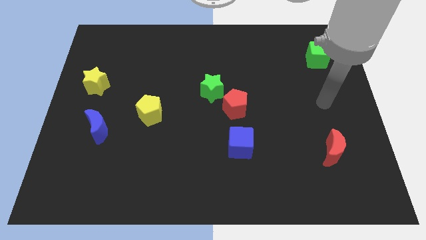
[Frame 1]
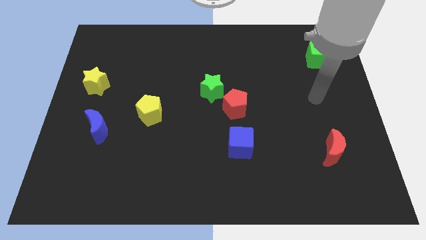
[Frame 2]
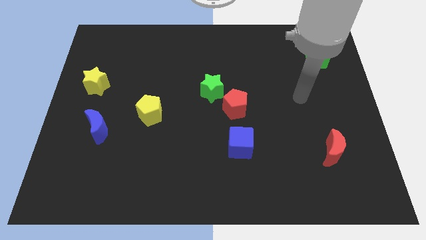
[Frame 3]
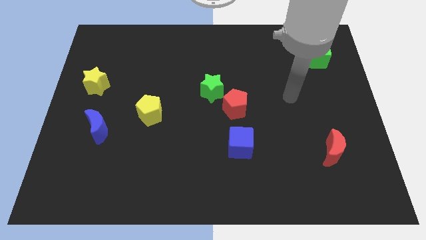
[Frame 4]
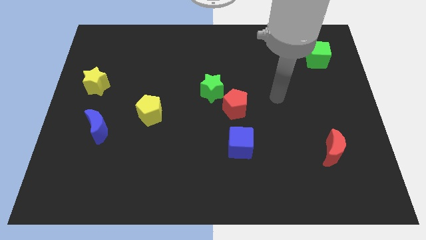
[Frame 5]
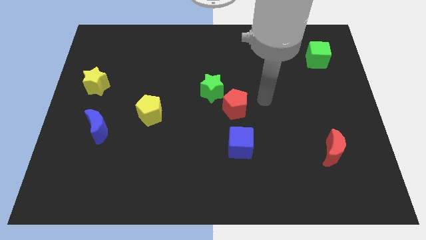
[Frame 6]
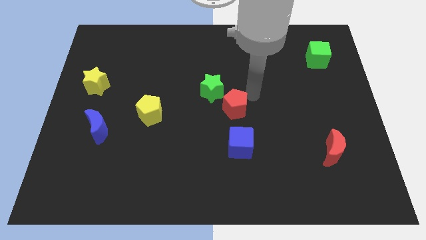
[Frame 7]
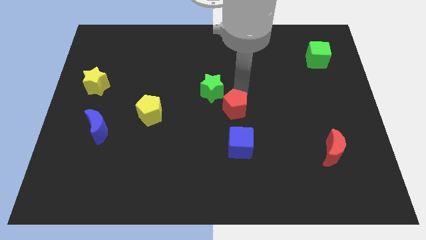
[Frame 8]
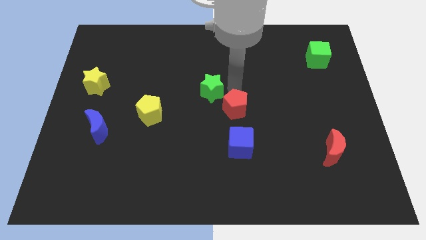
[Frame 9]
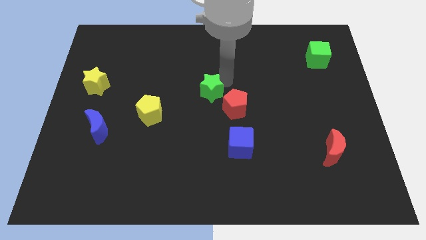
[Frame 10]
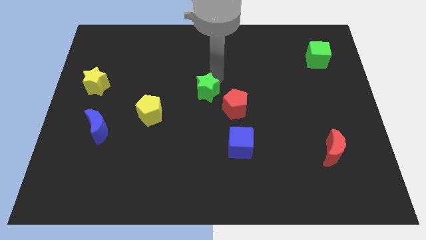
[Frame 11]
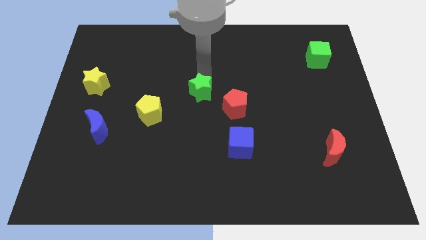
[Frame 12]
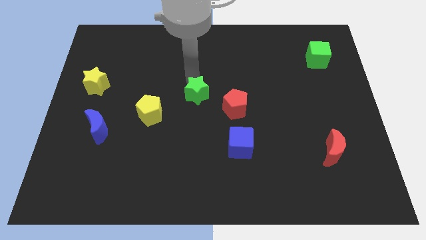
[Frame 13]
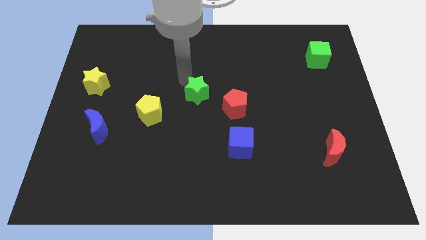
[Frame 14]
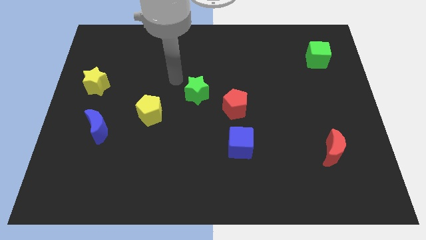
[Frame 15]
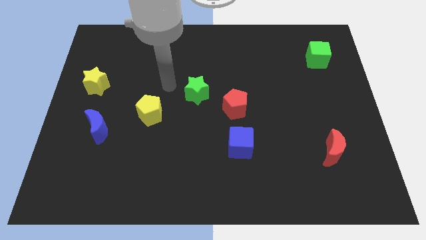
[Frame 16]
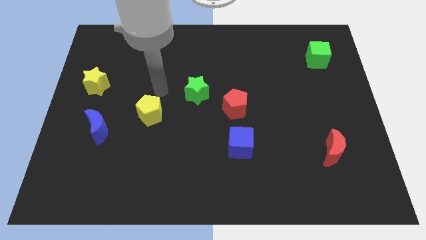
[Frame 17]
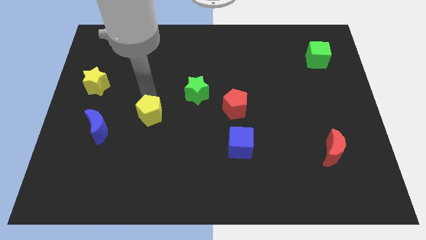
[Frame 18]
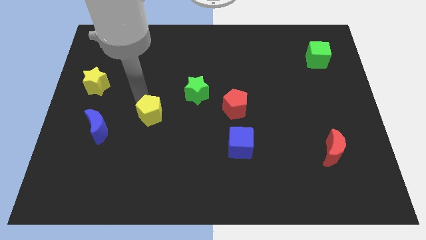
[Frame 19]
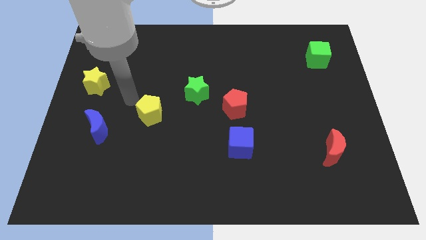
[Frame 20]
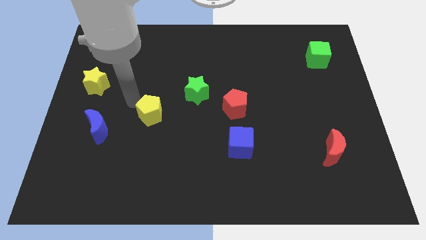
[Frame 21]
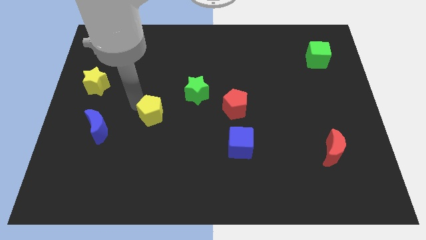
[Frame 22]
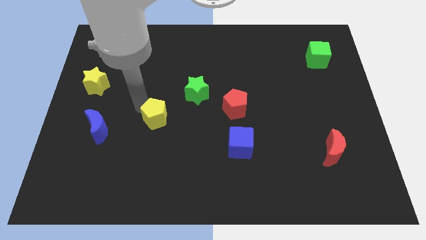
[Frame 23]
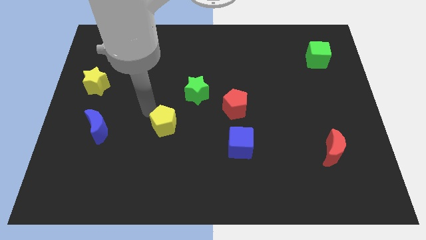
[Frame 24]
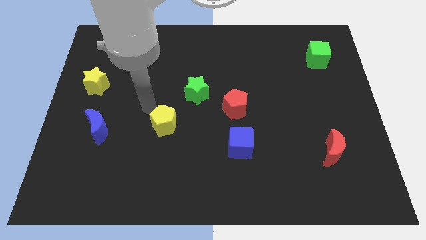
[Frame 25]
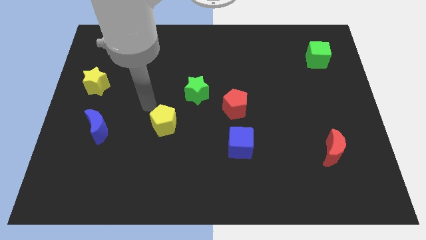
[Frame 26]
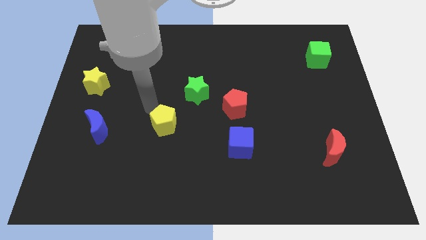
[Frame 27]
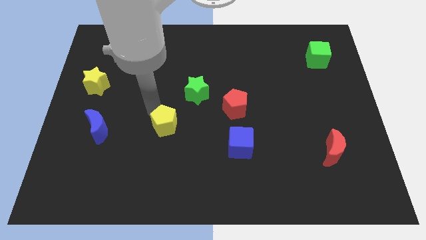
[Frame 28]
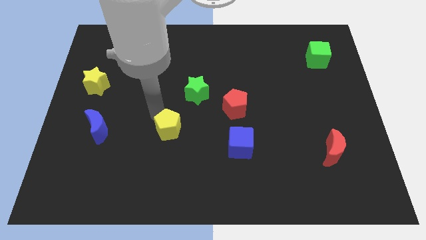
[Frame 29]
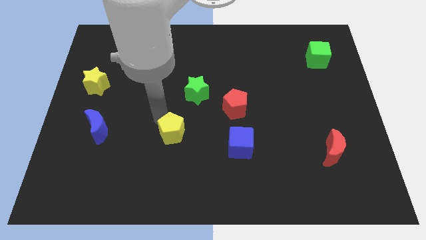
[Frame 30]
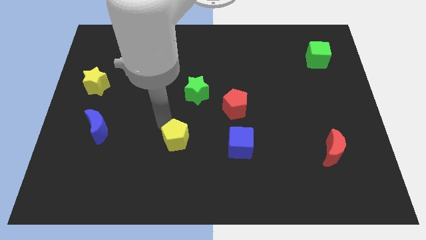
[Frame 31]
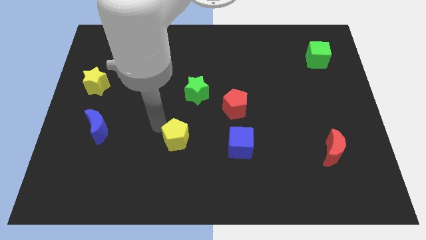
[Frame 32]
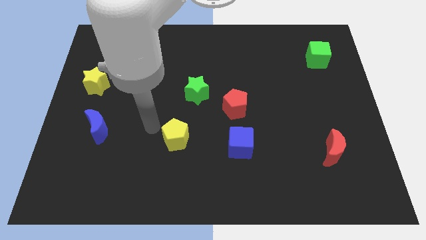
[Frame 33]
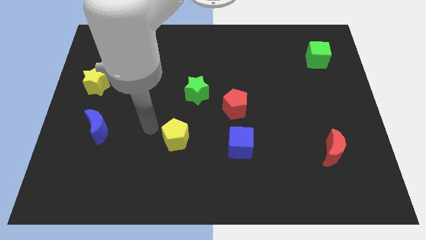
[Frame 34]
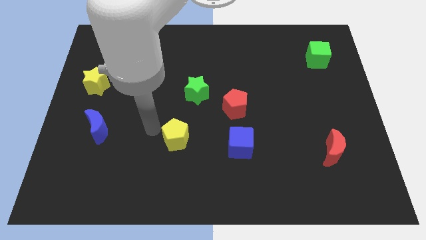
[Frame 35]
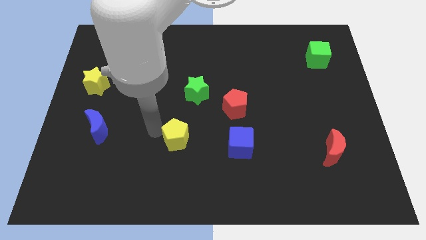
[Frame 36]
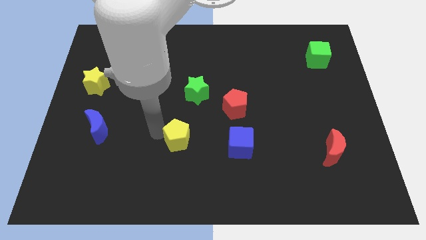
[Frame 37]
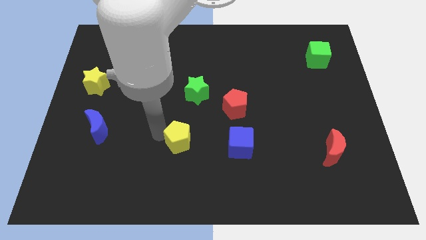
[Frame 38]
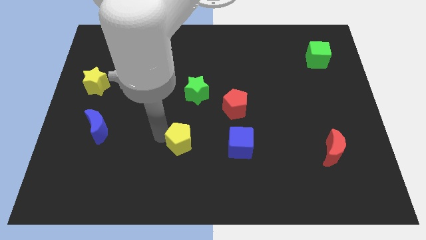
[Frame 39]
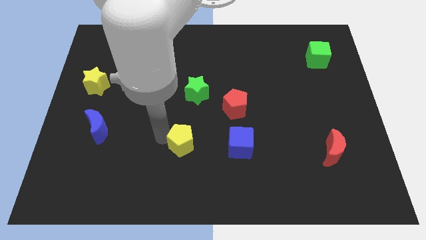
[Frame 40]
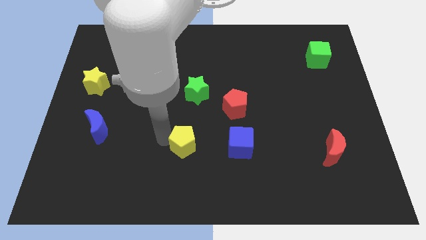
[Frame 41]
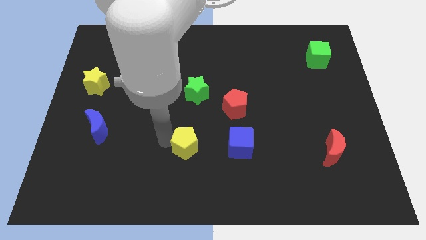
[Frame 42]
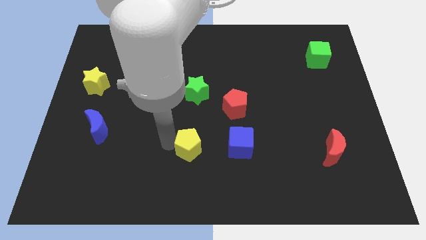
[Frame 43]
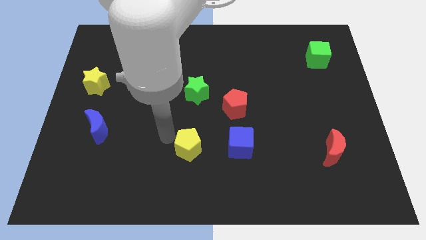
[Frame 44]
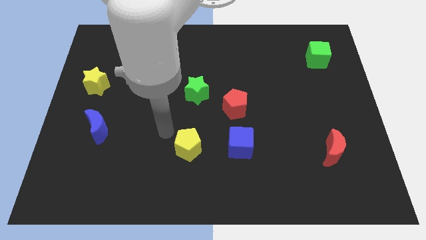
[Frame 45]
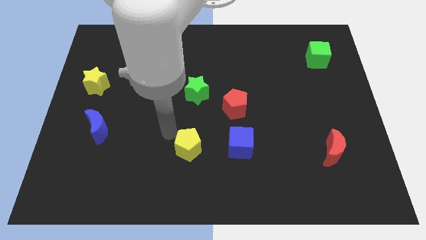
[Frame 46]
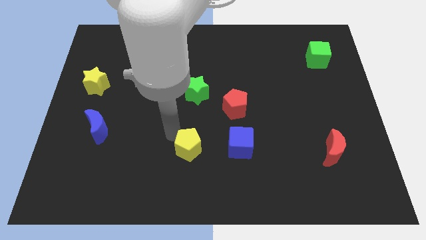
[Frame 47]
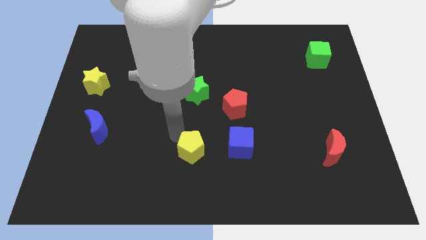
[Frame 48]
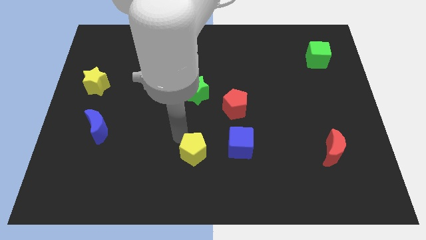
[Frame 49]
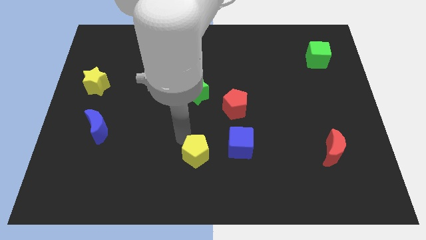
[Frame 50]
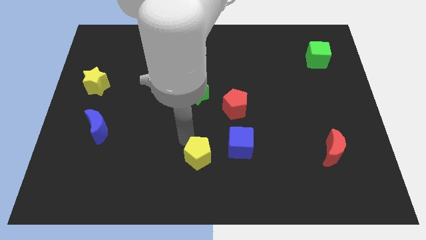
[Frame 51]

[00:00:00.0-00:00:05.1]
put the yellow pentagon to the bottom left of the blue cube

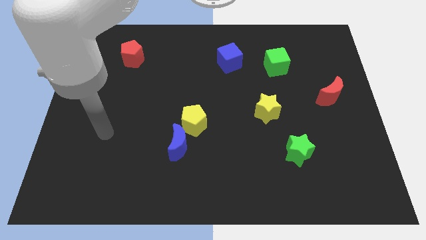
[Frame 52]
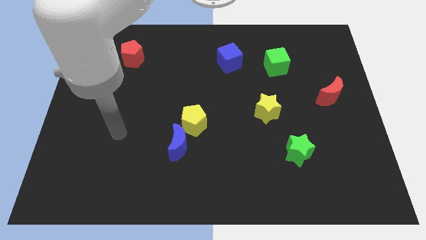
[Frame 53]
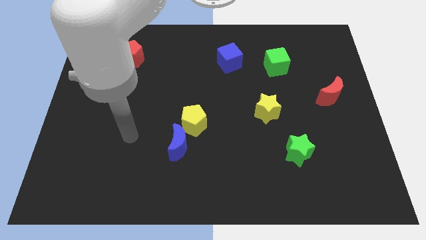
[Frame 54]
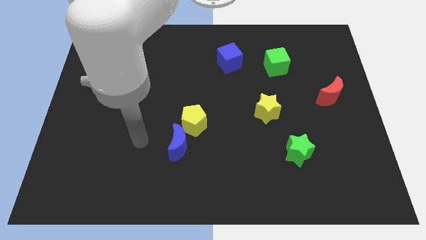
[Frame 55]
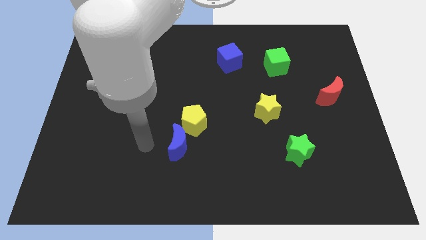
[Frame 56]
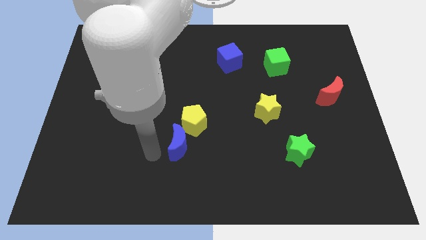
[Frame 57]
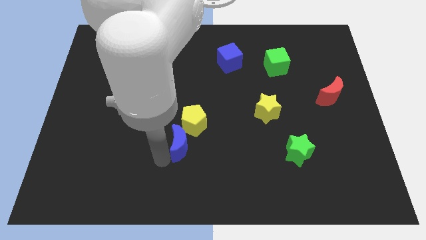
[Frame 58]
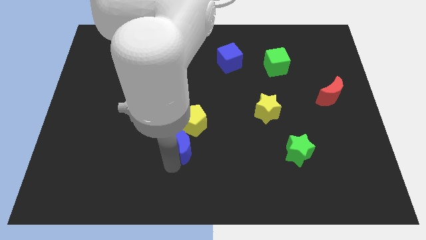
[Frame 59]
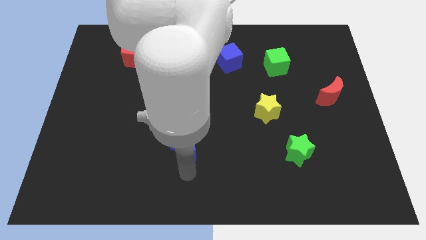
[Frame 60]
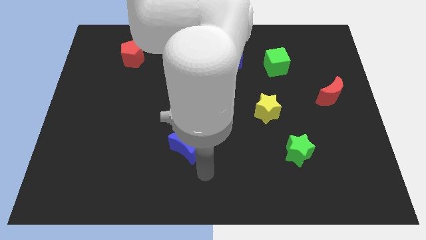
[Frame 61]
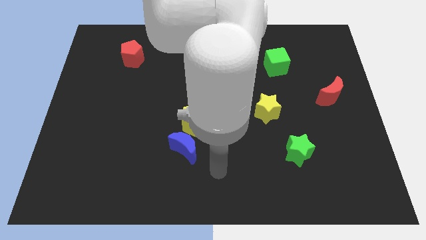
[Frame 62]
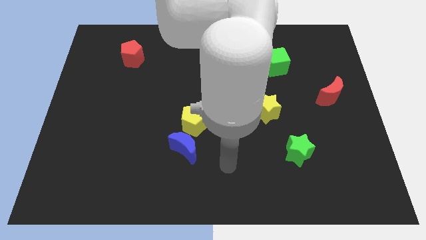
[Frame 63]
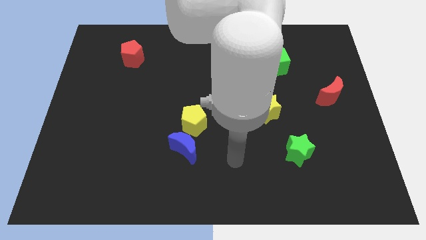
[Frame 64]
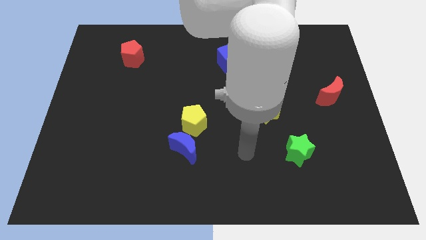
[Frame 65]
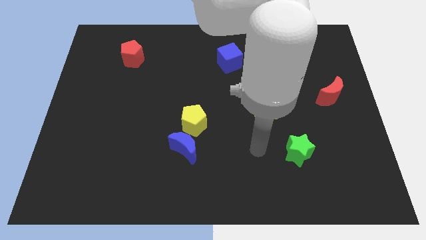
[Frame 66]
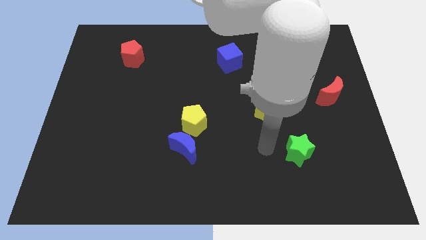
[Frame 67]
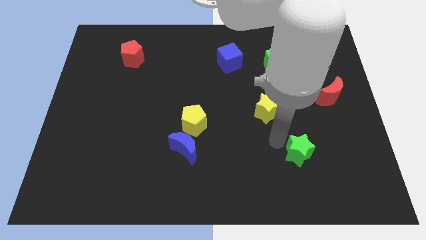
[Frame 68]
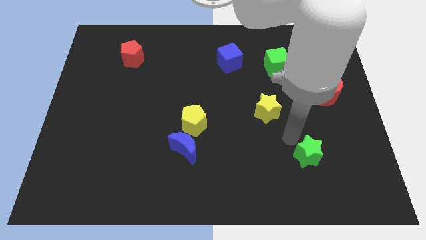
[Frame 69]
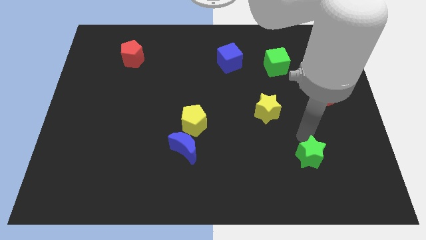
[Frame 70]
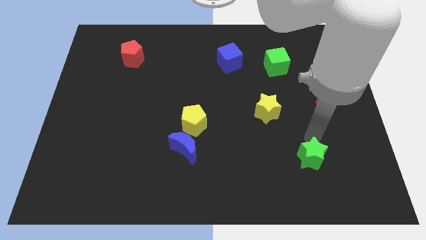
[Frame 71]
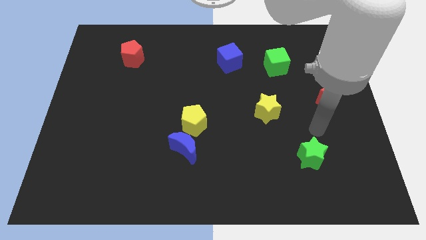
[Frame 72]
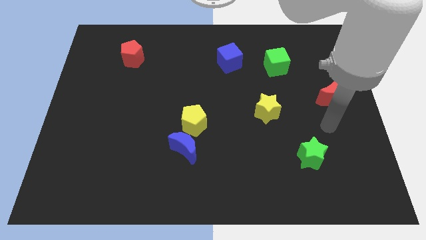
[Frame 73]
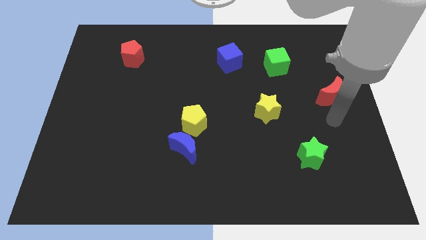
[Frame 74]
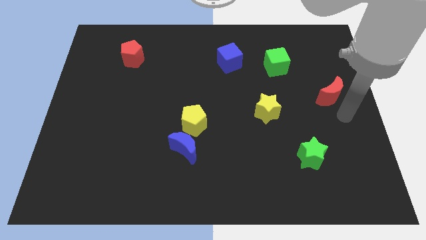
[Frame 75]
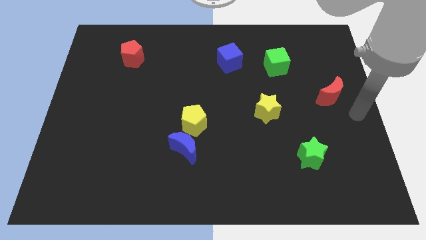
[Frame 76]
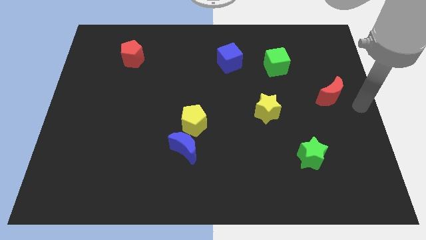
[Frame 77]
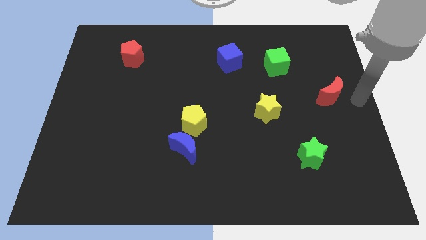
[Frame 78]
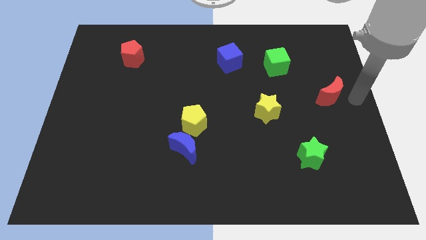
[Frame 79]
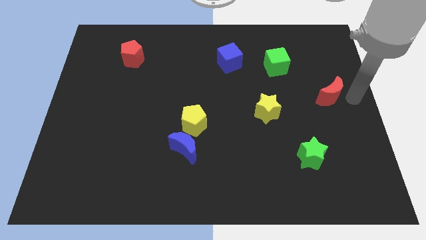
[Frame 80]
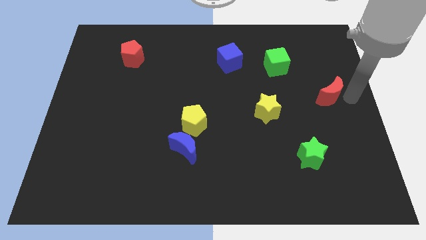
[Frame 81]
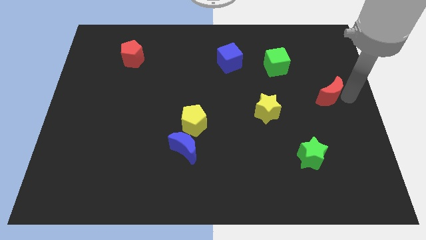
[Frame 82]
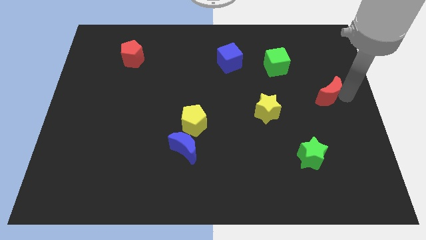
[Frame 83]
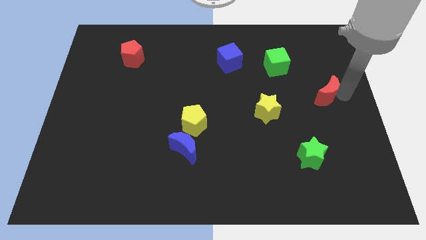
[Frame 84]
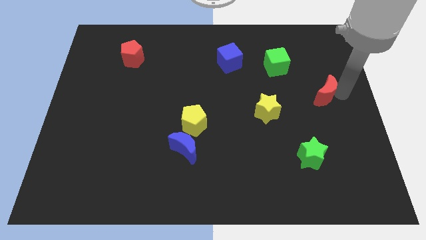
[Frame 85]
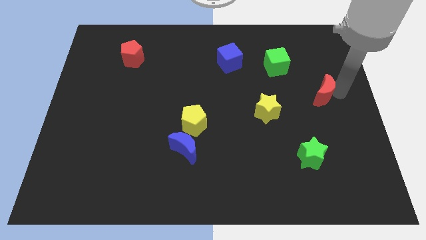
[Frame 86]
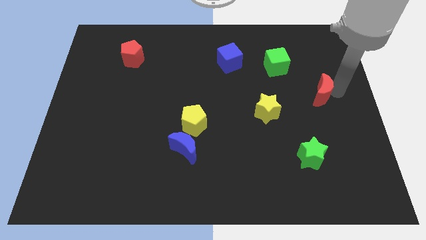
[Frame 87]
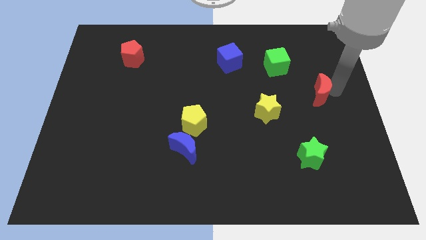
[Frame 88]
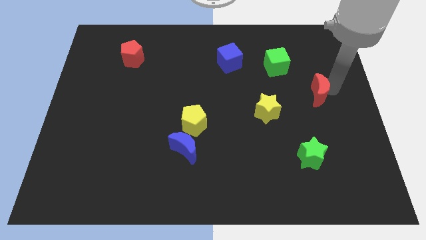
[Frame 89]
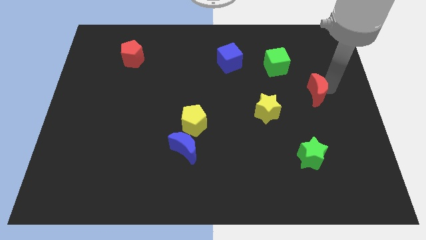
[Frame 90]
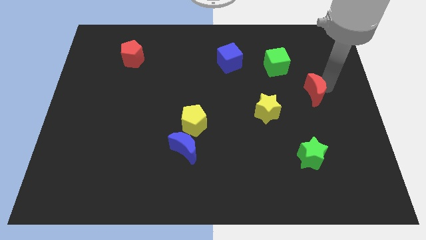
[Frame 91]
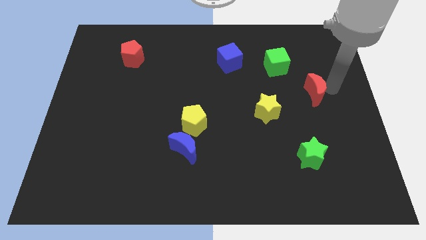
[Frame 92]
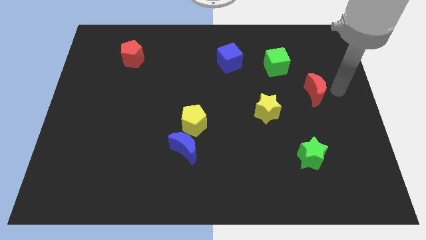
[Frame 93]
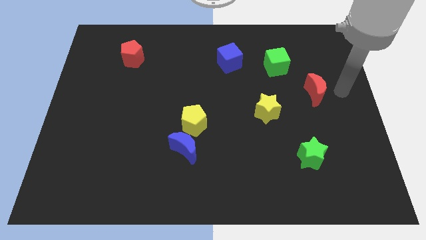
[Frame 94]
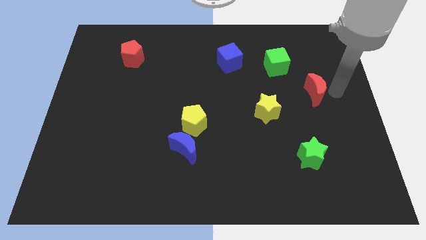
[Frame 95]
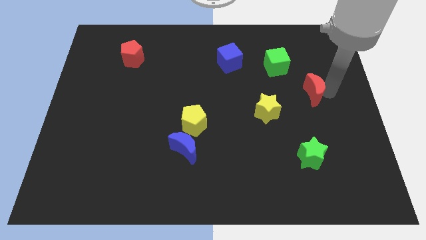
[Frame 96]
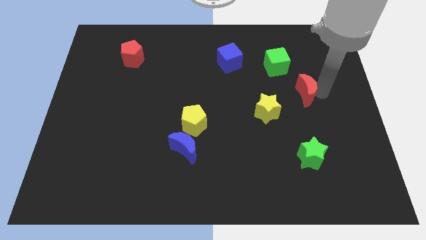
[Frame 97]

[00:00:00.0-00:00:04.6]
push the red moon to the top right side of the yellow star
